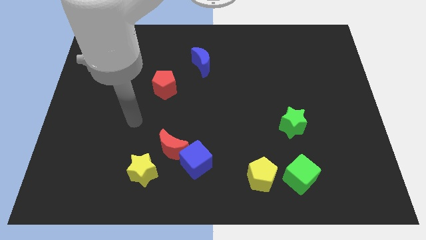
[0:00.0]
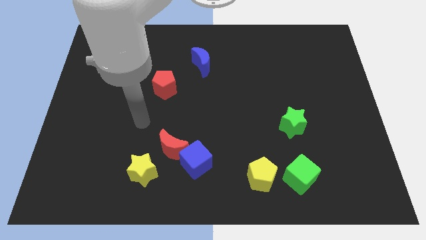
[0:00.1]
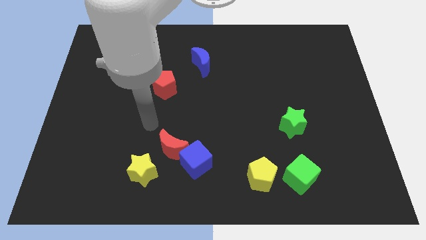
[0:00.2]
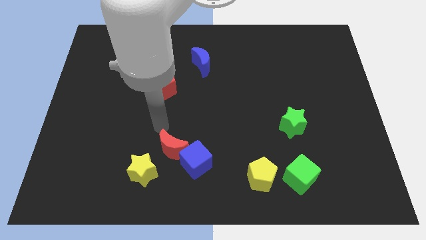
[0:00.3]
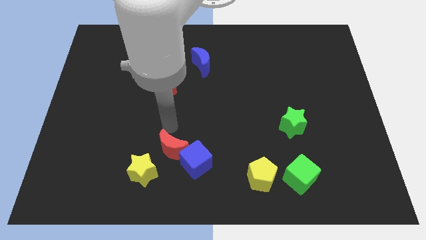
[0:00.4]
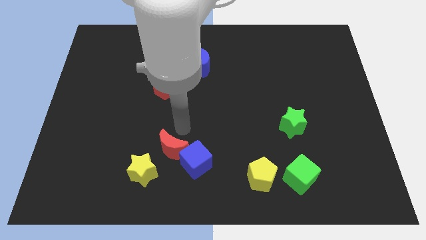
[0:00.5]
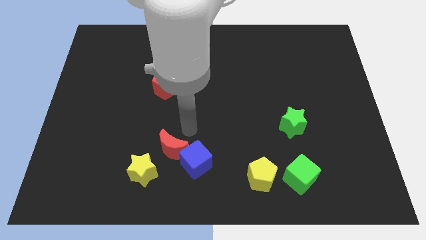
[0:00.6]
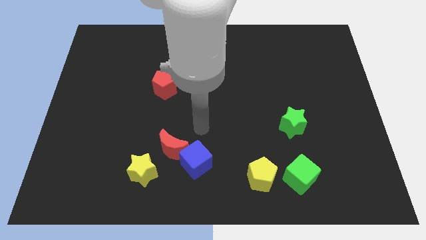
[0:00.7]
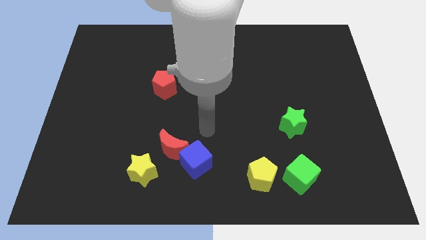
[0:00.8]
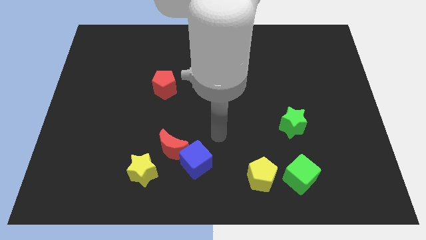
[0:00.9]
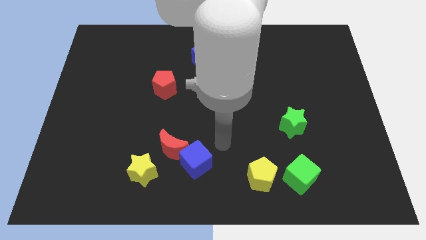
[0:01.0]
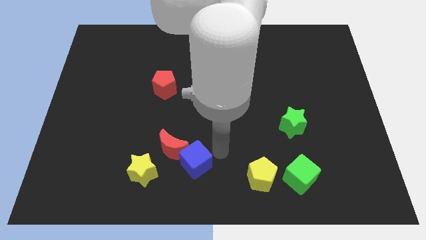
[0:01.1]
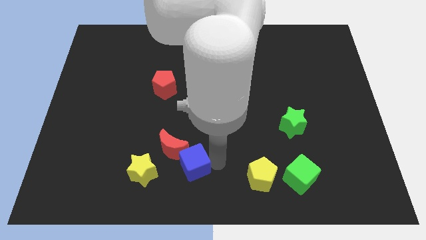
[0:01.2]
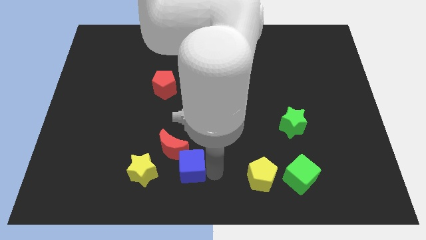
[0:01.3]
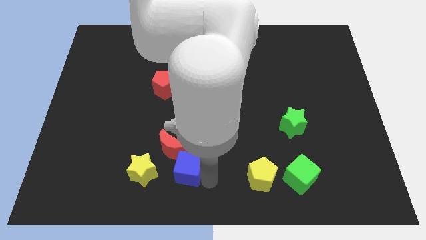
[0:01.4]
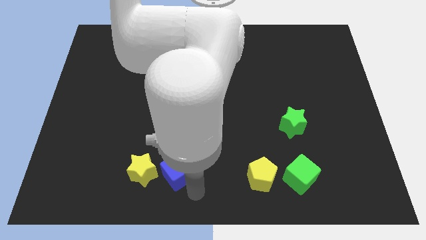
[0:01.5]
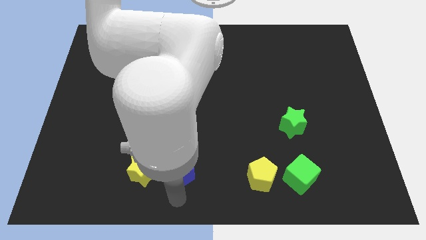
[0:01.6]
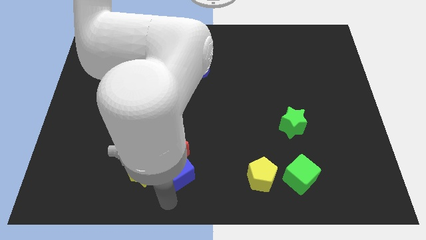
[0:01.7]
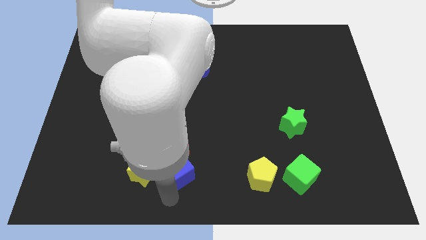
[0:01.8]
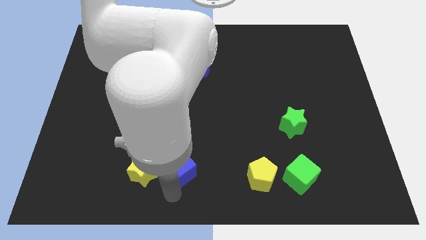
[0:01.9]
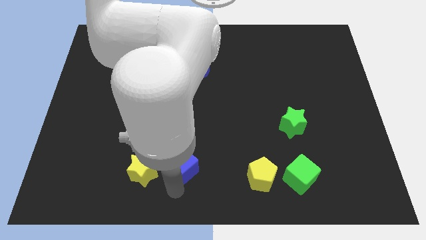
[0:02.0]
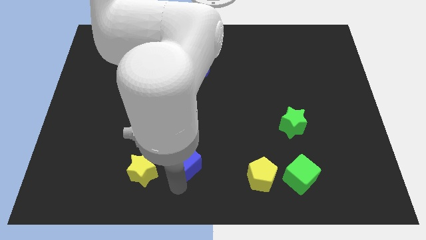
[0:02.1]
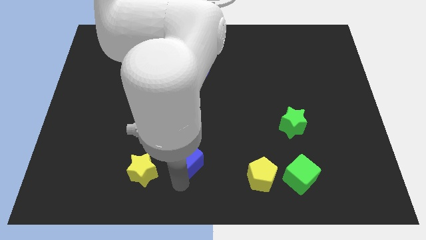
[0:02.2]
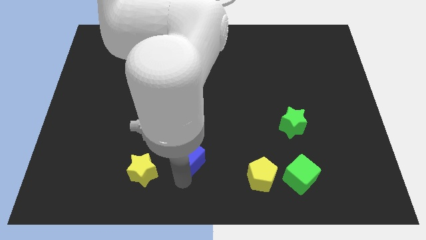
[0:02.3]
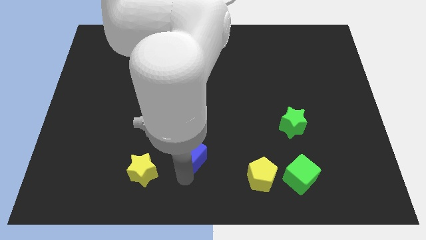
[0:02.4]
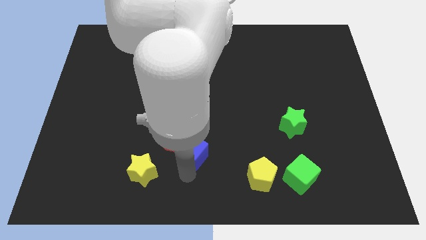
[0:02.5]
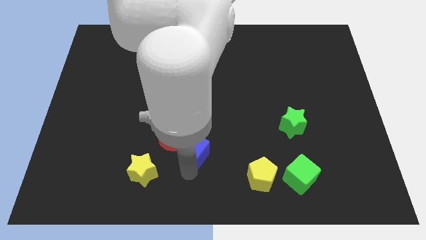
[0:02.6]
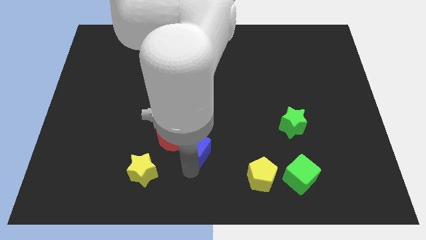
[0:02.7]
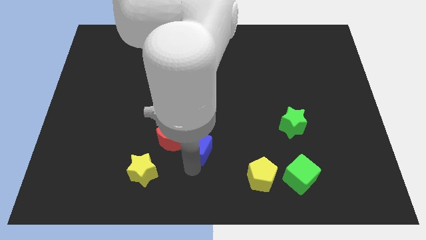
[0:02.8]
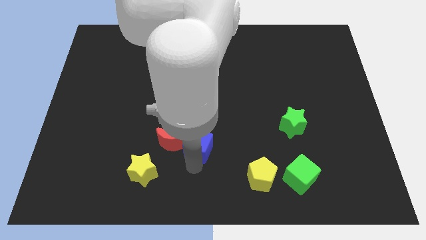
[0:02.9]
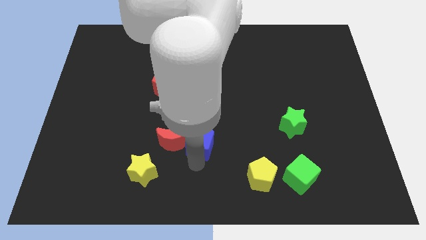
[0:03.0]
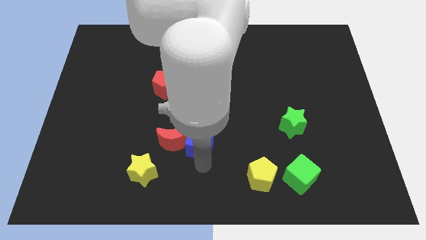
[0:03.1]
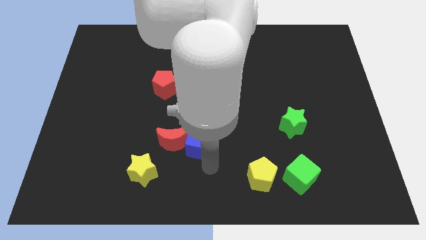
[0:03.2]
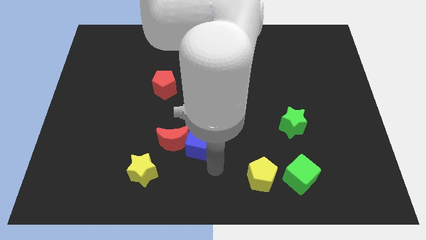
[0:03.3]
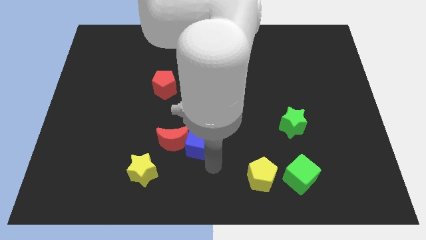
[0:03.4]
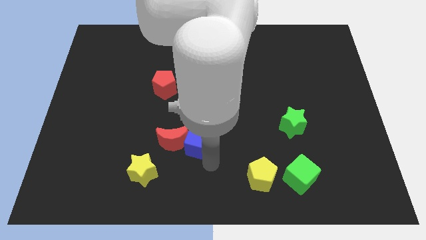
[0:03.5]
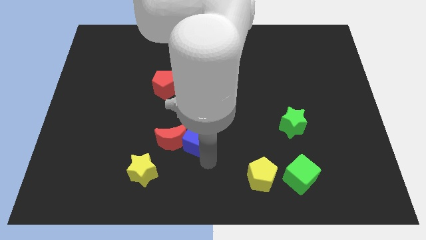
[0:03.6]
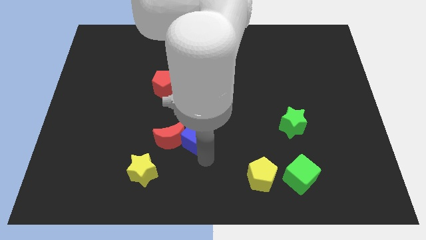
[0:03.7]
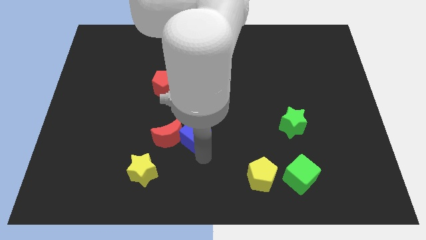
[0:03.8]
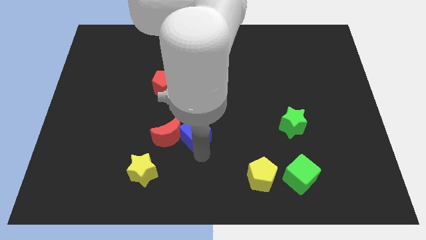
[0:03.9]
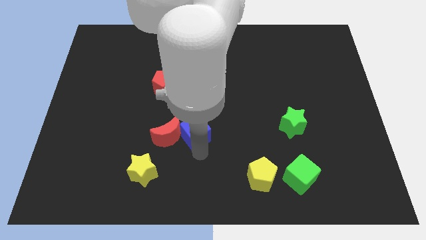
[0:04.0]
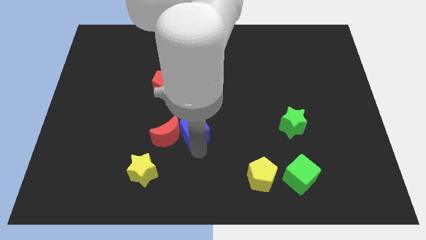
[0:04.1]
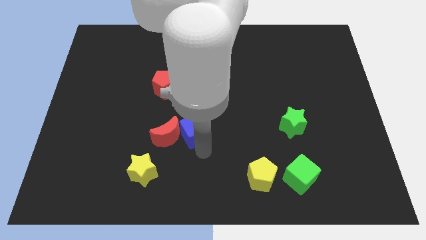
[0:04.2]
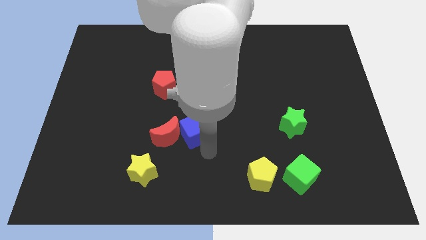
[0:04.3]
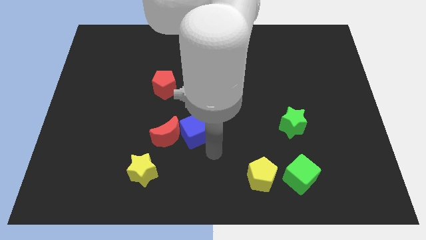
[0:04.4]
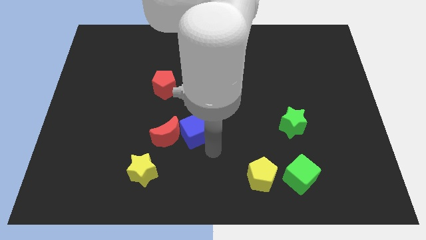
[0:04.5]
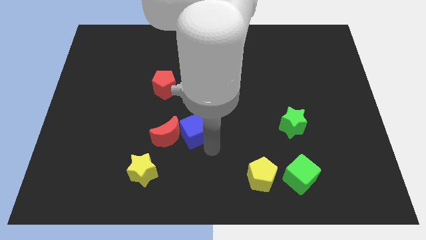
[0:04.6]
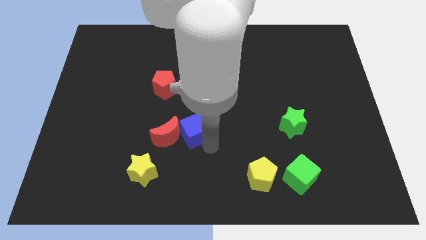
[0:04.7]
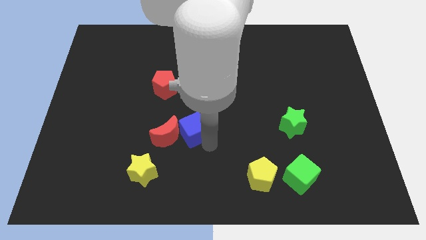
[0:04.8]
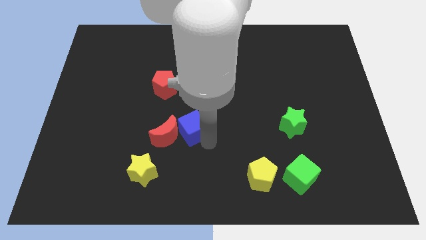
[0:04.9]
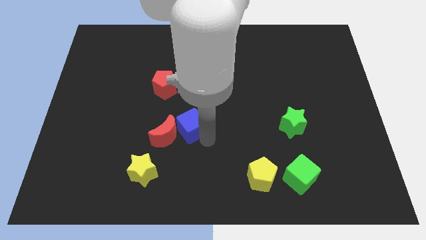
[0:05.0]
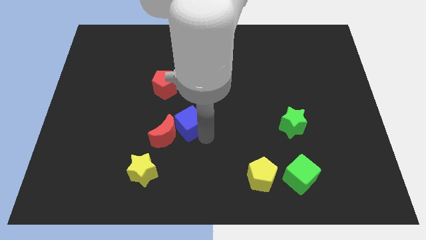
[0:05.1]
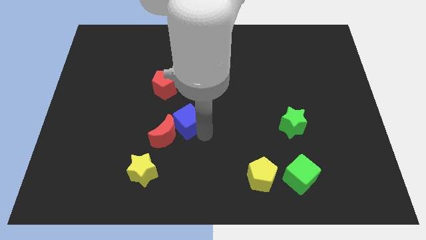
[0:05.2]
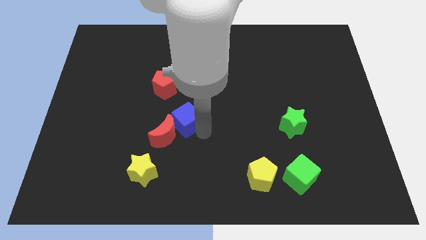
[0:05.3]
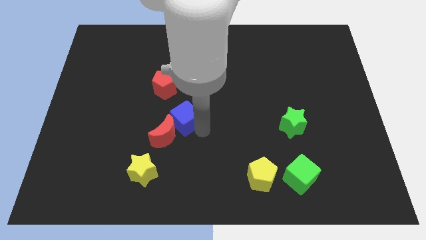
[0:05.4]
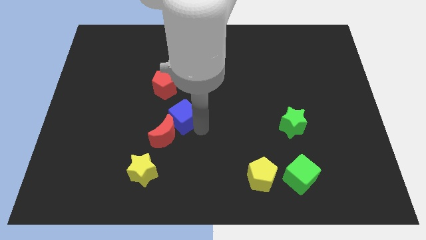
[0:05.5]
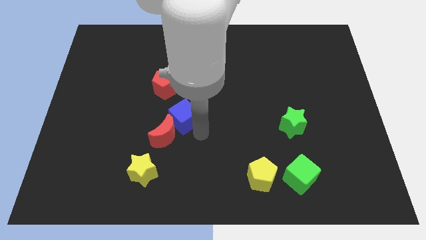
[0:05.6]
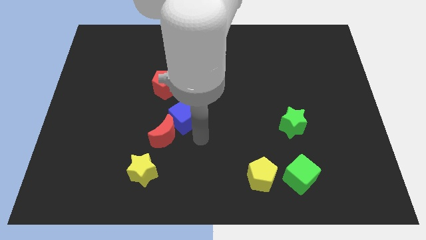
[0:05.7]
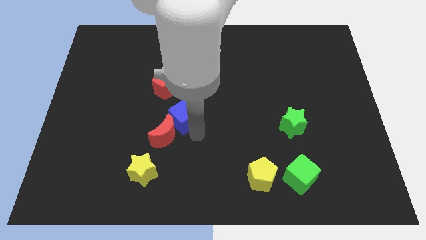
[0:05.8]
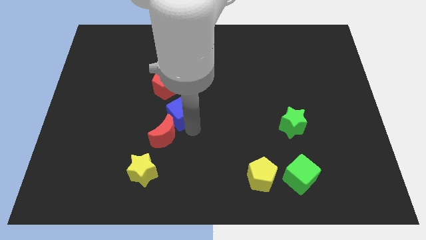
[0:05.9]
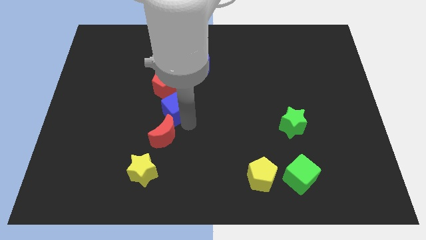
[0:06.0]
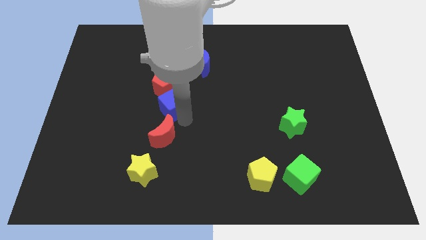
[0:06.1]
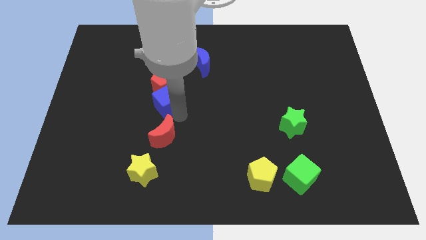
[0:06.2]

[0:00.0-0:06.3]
push the blue cube next to the red pentagon
